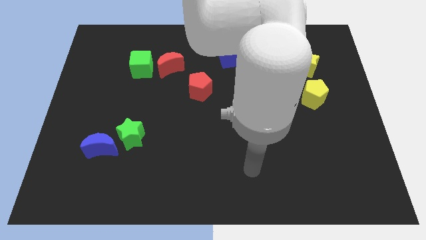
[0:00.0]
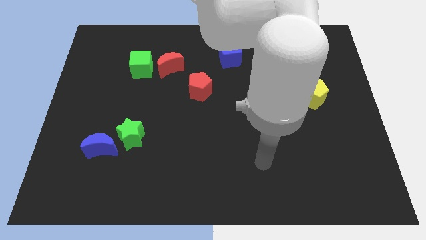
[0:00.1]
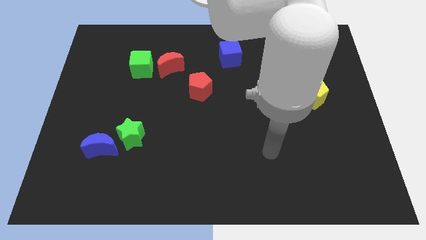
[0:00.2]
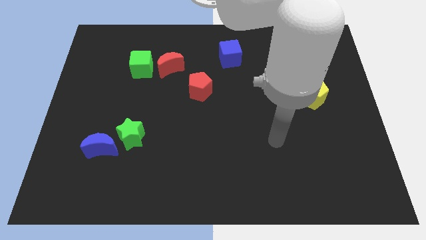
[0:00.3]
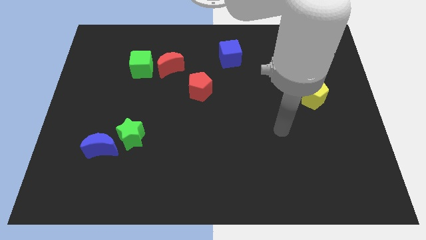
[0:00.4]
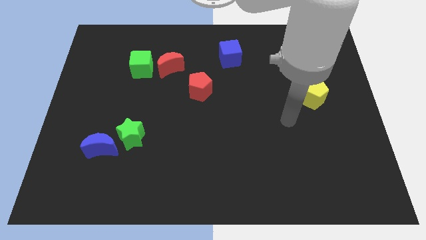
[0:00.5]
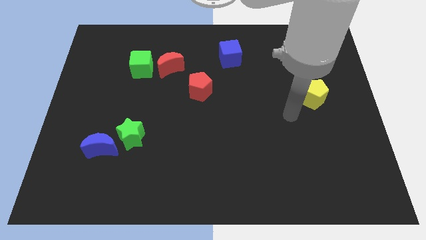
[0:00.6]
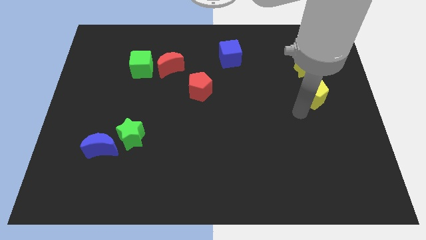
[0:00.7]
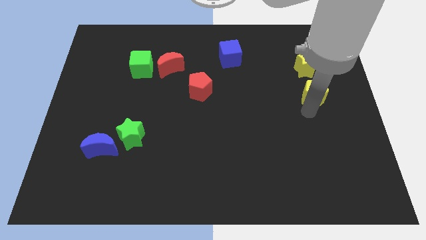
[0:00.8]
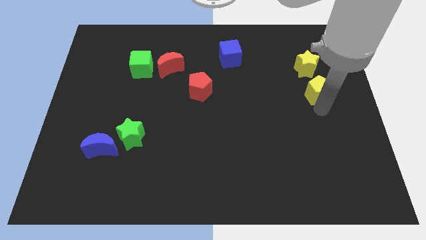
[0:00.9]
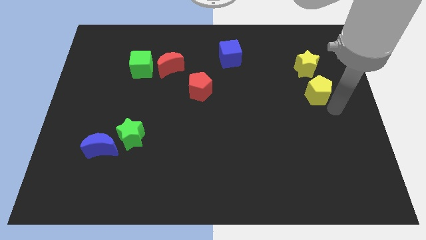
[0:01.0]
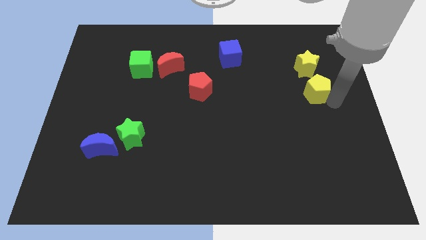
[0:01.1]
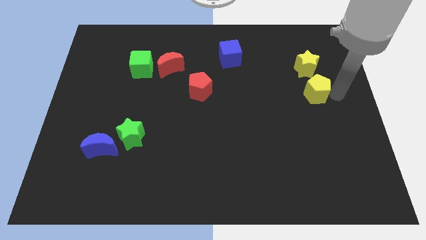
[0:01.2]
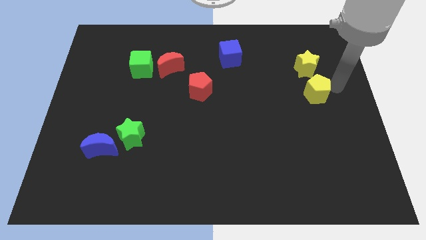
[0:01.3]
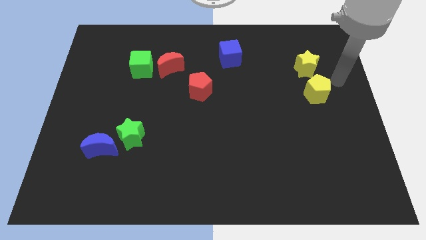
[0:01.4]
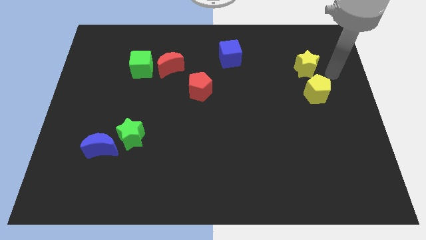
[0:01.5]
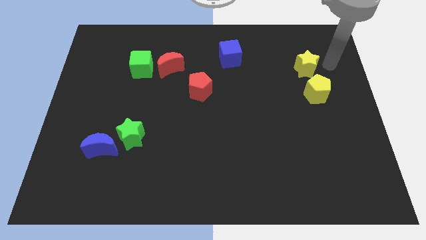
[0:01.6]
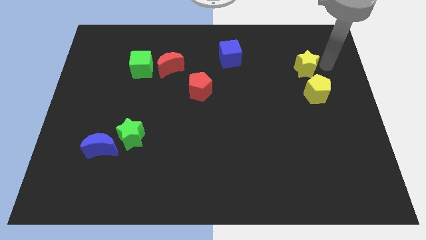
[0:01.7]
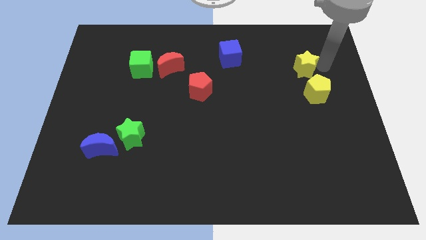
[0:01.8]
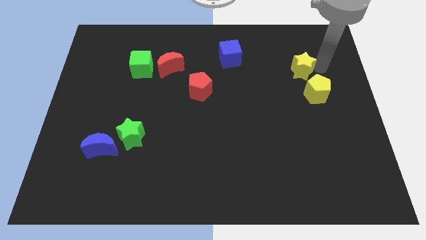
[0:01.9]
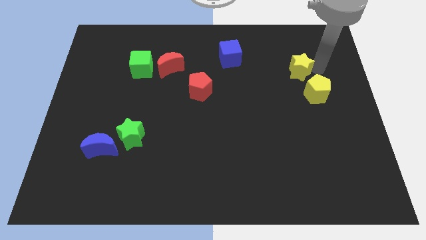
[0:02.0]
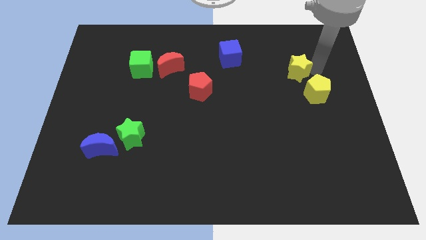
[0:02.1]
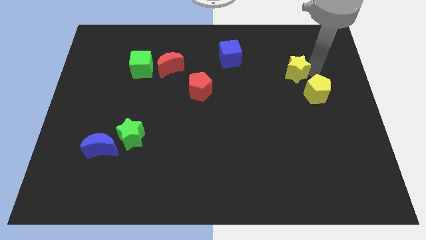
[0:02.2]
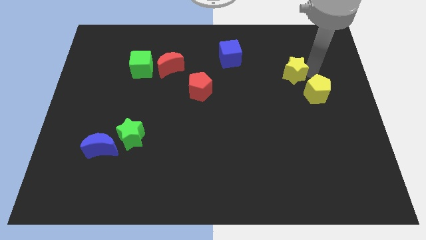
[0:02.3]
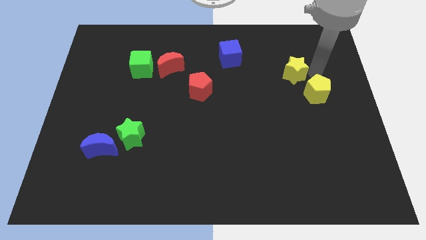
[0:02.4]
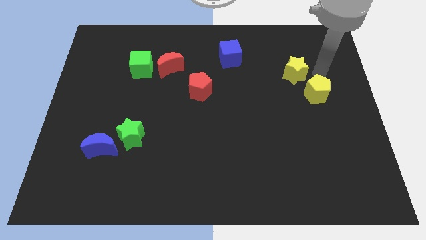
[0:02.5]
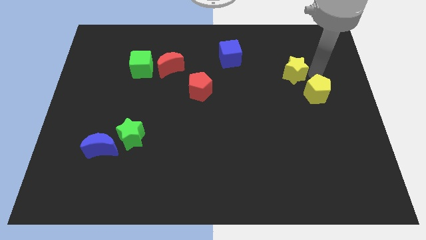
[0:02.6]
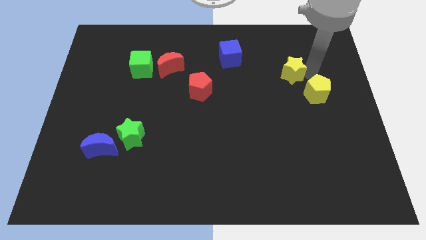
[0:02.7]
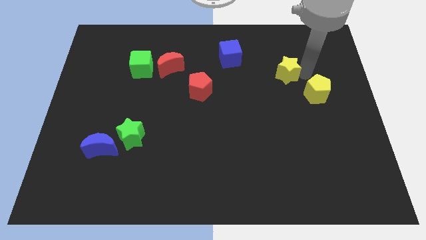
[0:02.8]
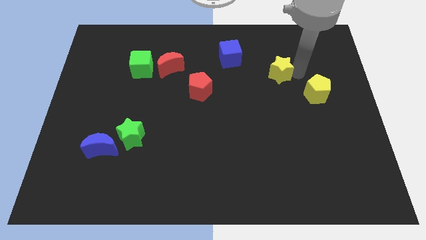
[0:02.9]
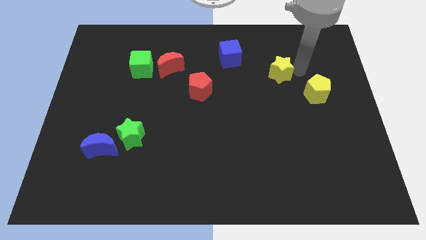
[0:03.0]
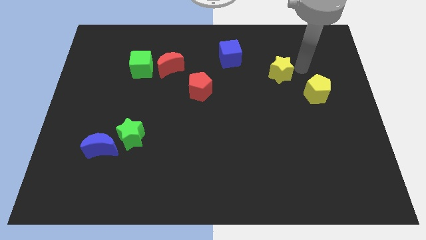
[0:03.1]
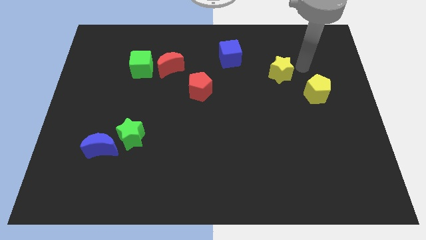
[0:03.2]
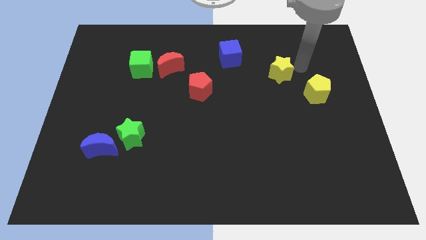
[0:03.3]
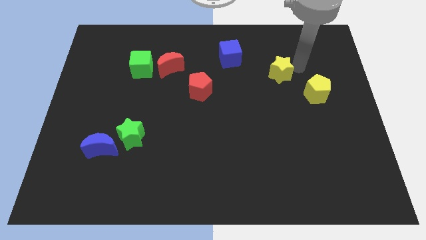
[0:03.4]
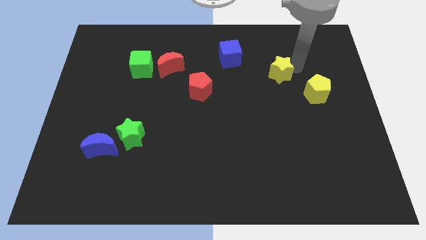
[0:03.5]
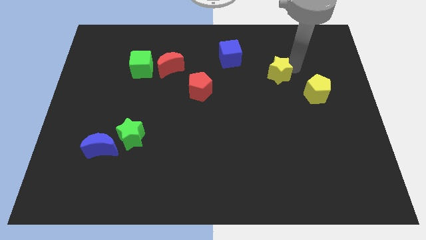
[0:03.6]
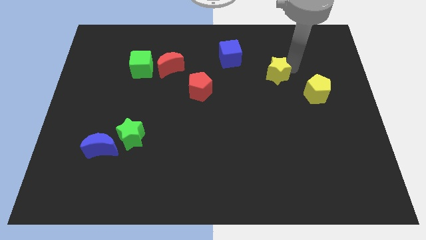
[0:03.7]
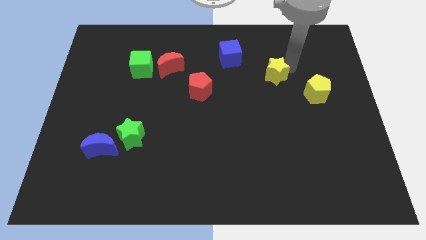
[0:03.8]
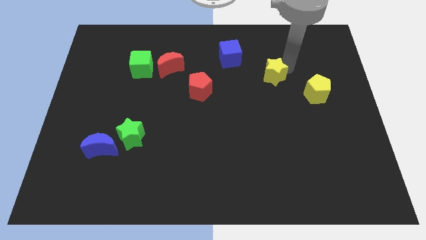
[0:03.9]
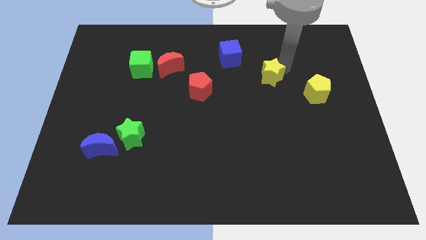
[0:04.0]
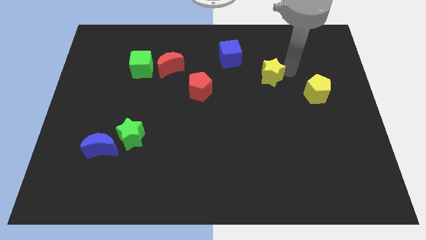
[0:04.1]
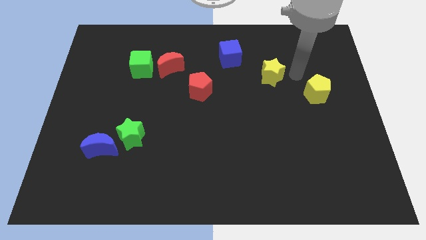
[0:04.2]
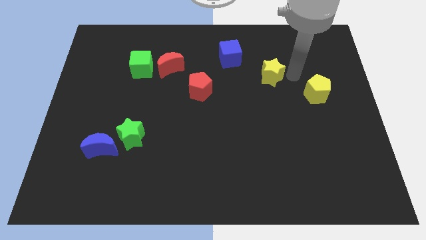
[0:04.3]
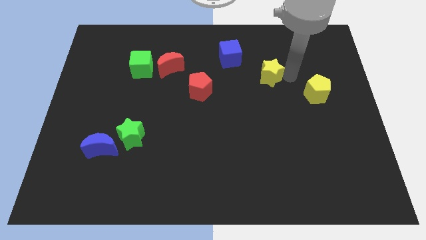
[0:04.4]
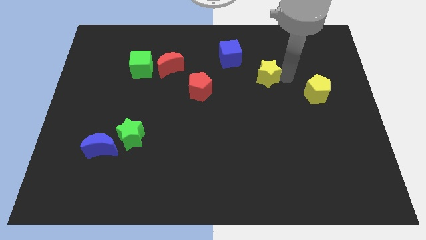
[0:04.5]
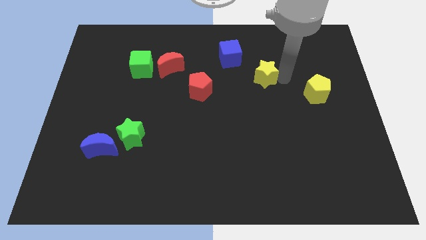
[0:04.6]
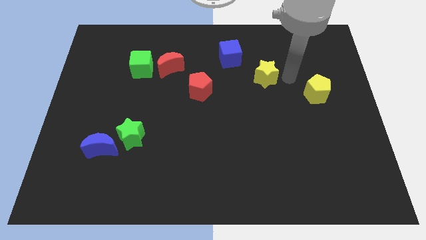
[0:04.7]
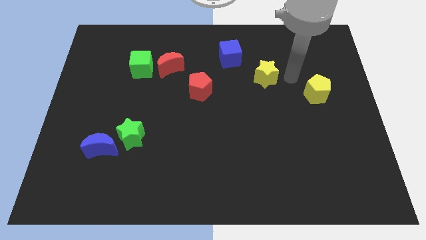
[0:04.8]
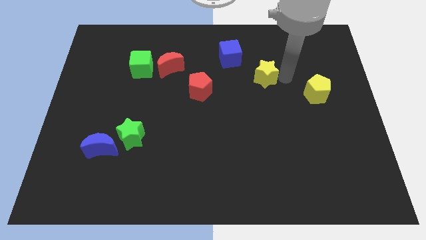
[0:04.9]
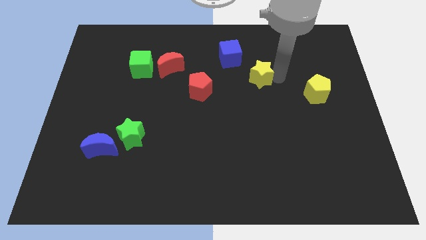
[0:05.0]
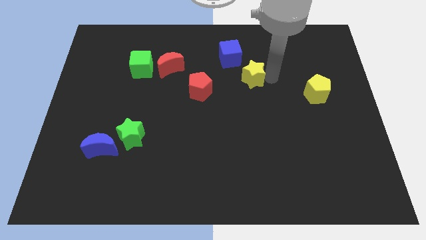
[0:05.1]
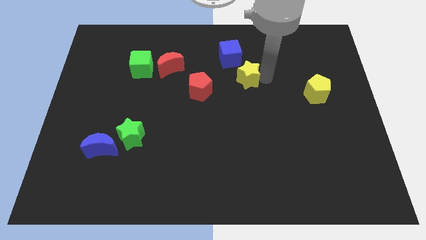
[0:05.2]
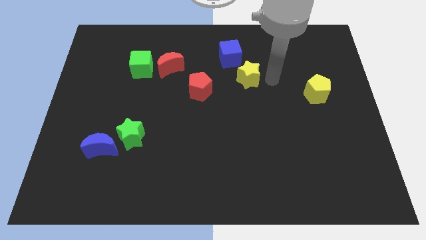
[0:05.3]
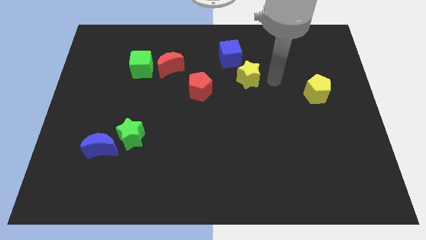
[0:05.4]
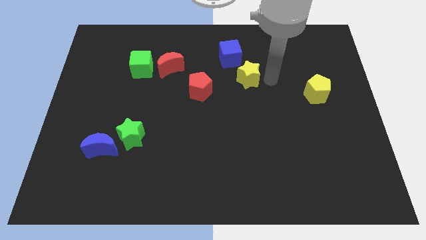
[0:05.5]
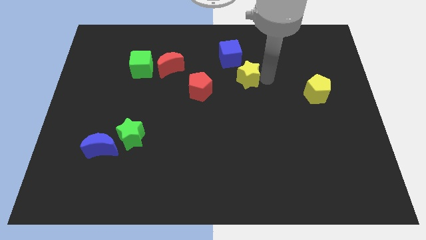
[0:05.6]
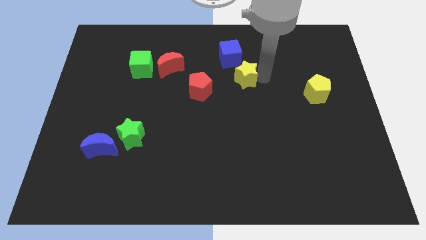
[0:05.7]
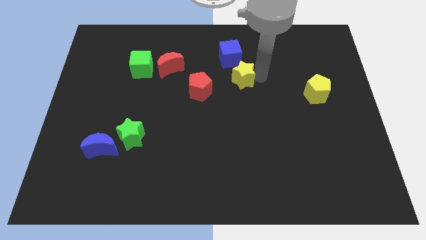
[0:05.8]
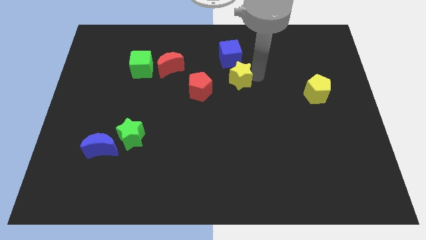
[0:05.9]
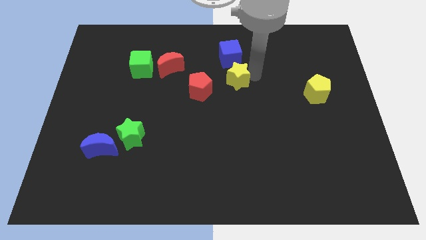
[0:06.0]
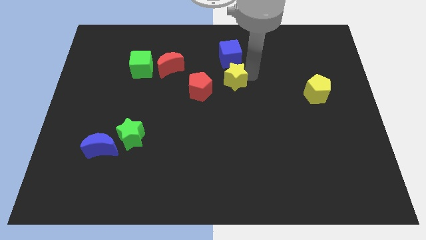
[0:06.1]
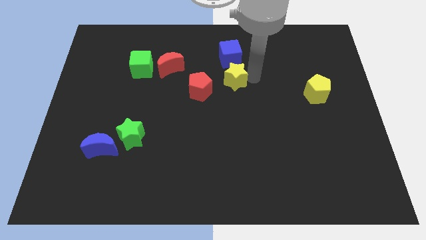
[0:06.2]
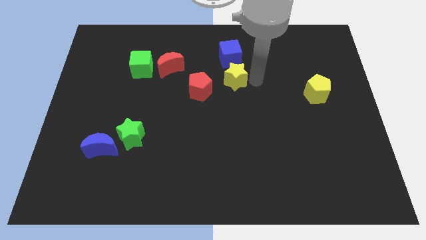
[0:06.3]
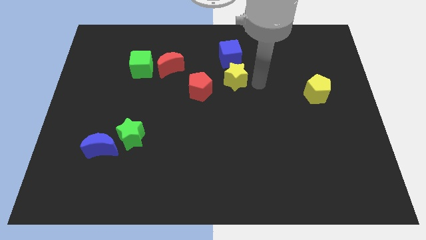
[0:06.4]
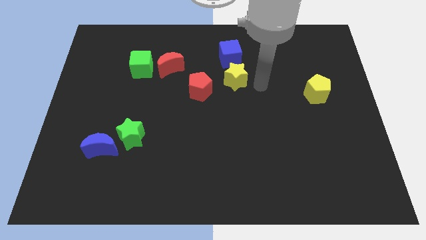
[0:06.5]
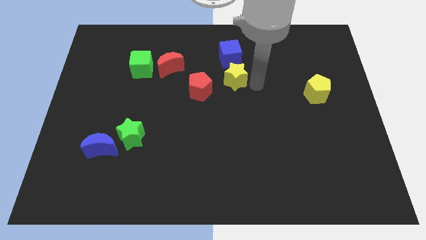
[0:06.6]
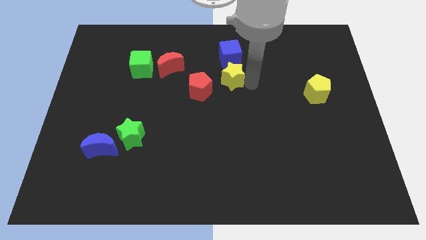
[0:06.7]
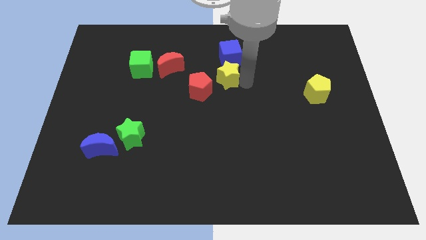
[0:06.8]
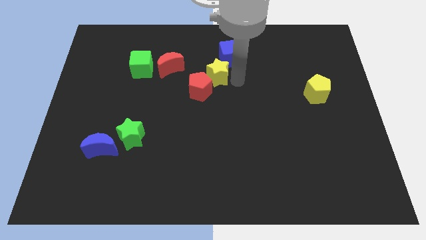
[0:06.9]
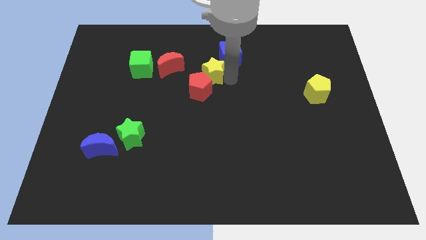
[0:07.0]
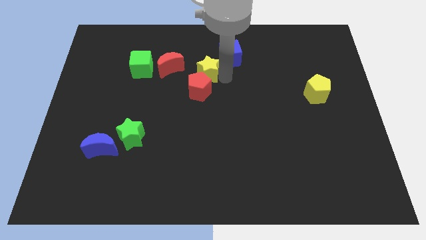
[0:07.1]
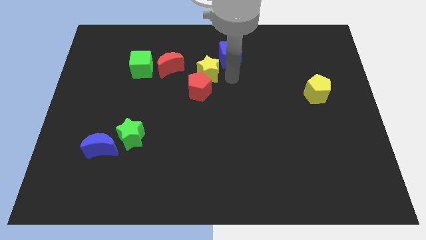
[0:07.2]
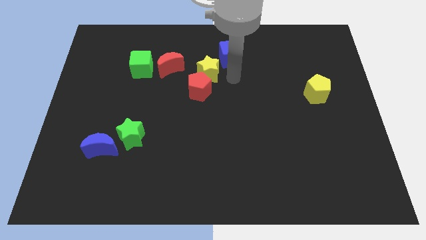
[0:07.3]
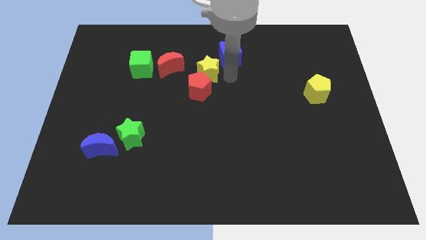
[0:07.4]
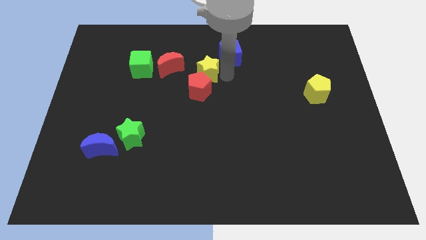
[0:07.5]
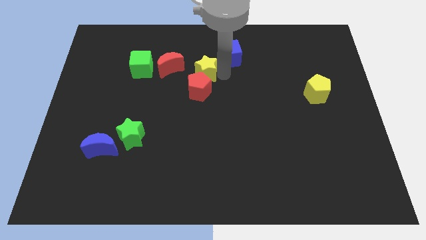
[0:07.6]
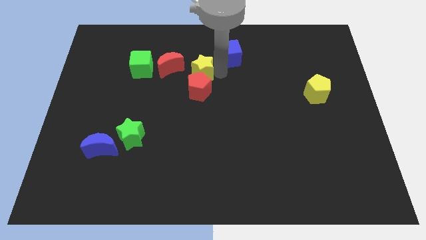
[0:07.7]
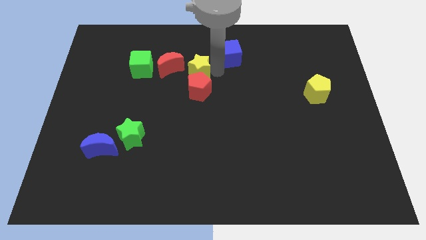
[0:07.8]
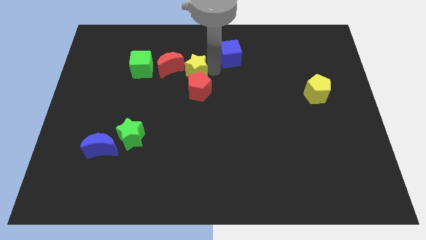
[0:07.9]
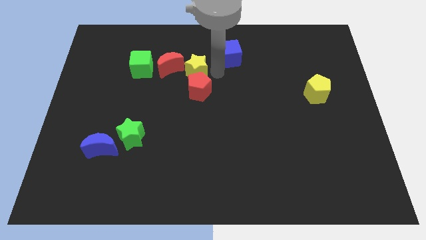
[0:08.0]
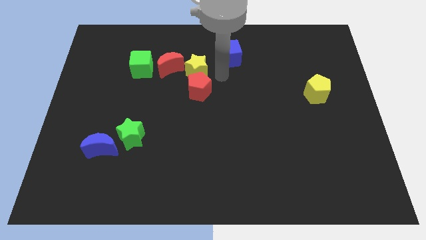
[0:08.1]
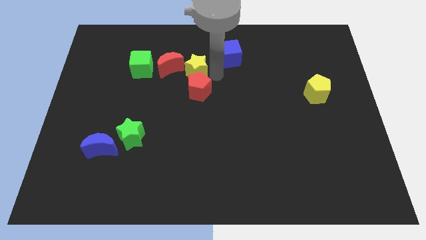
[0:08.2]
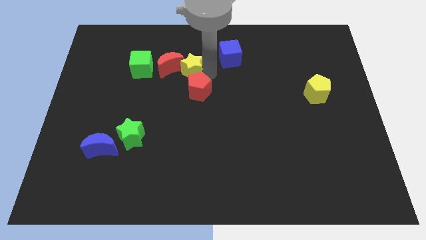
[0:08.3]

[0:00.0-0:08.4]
push the yellow star to the red moon
